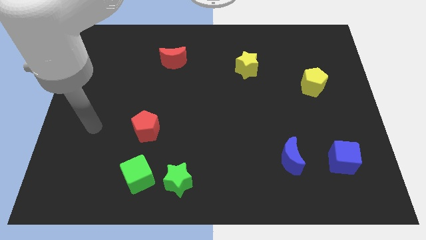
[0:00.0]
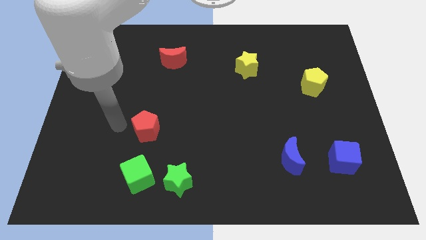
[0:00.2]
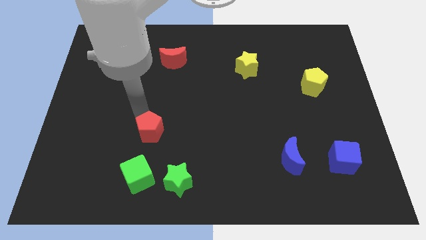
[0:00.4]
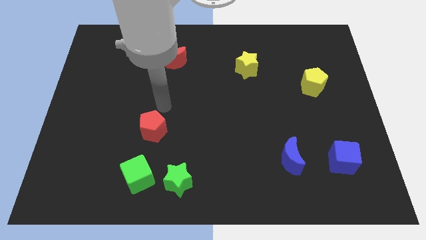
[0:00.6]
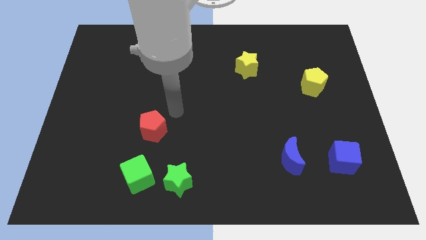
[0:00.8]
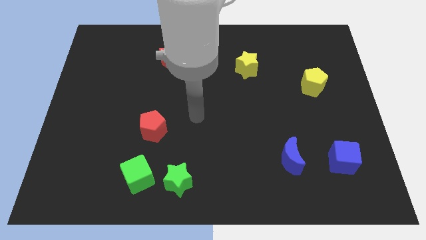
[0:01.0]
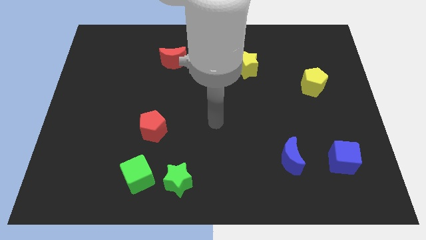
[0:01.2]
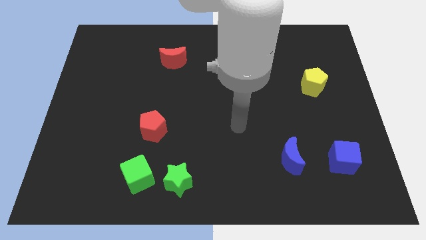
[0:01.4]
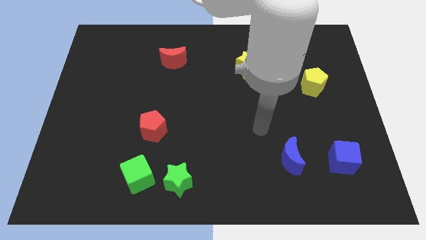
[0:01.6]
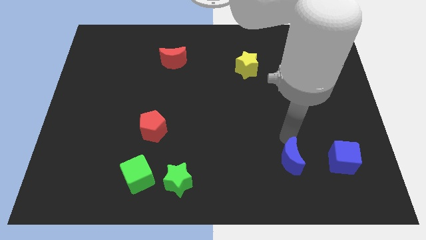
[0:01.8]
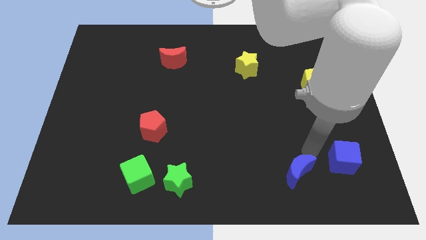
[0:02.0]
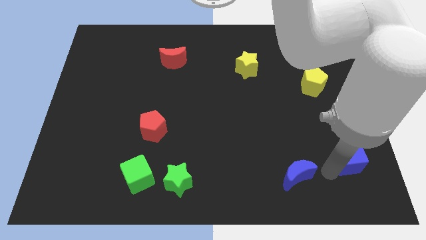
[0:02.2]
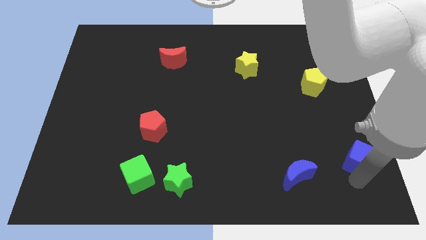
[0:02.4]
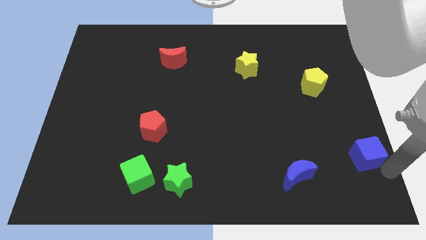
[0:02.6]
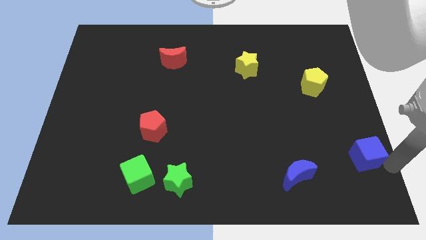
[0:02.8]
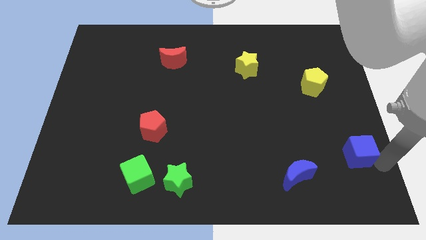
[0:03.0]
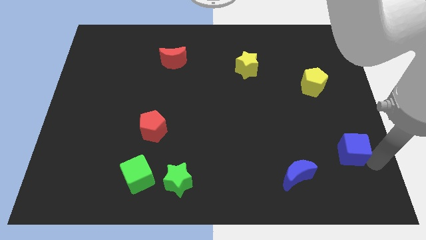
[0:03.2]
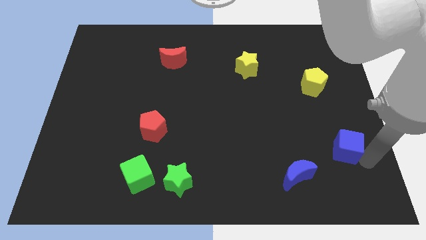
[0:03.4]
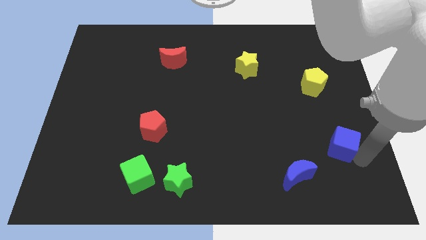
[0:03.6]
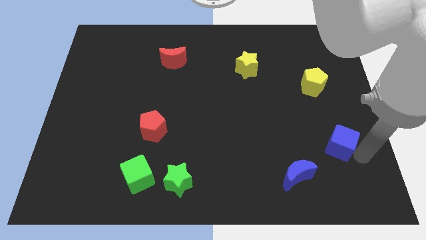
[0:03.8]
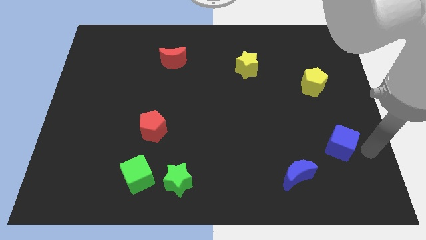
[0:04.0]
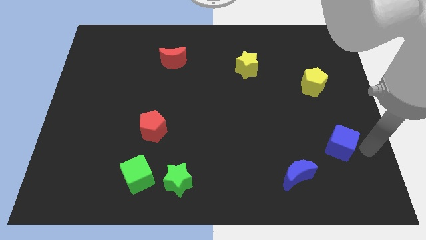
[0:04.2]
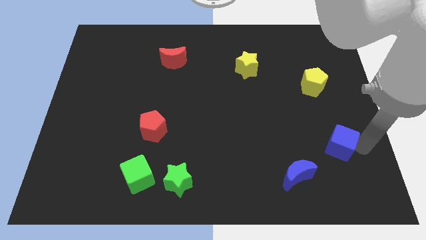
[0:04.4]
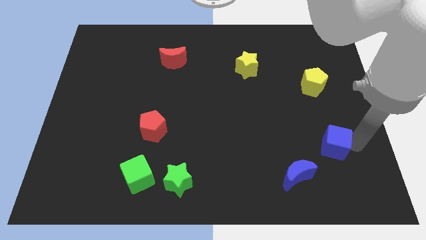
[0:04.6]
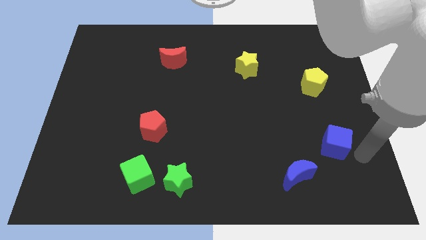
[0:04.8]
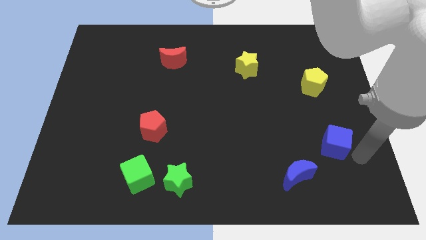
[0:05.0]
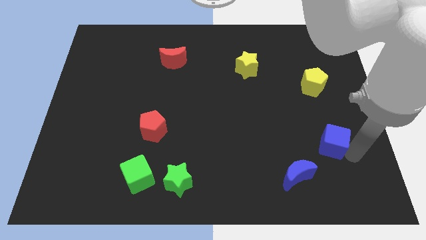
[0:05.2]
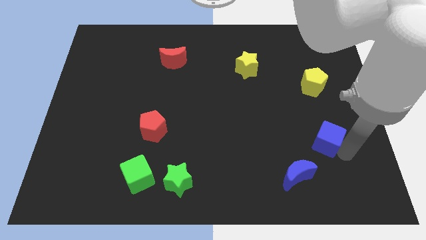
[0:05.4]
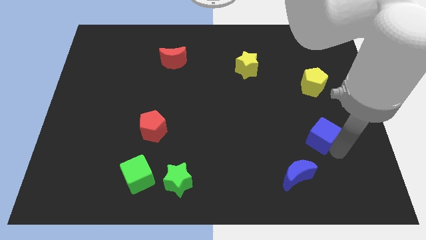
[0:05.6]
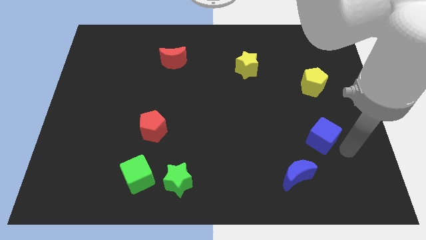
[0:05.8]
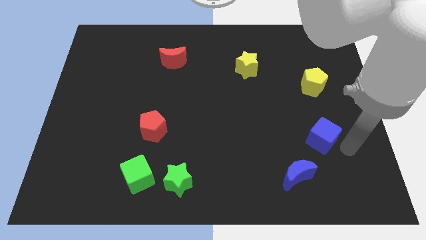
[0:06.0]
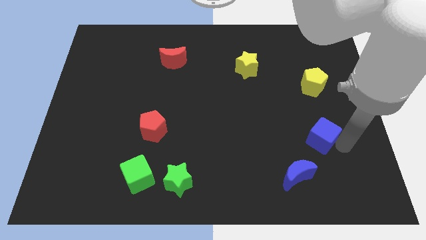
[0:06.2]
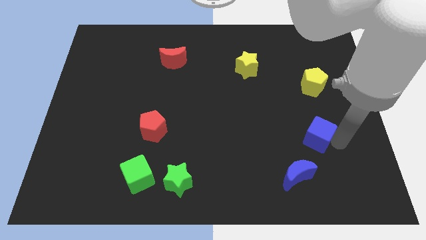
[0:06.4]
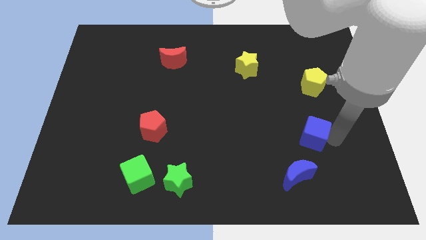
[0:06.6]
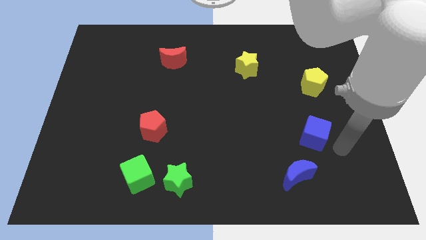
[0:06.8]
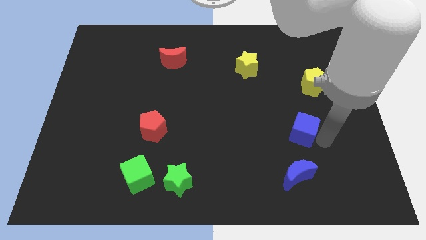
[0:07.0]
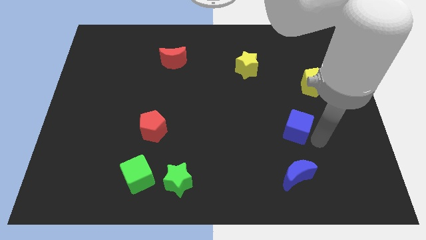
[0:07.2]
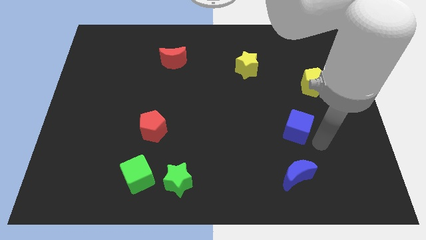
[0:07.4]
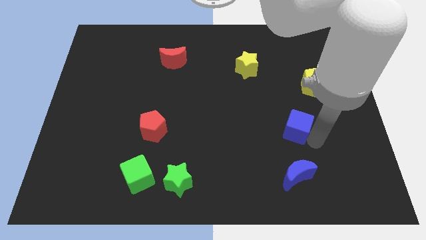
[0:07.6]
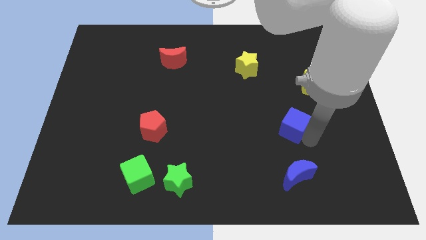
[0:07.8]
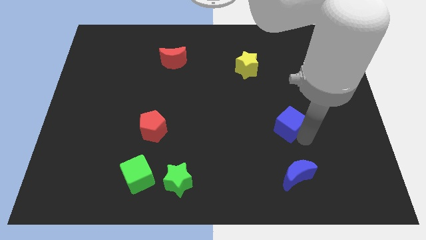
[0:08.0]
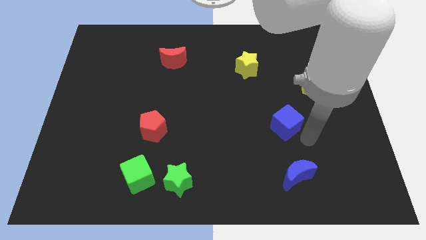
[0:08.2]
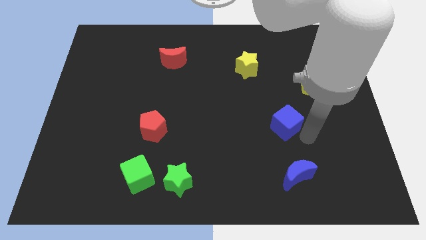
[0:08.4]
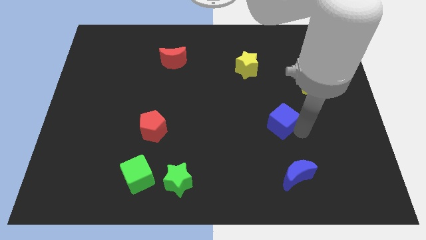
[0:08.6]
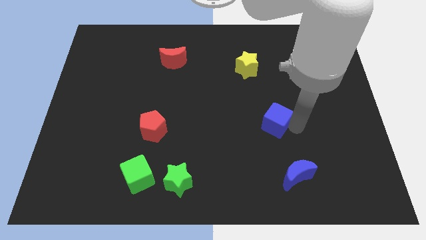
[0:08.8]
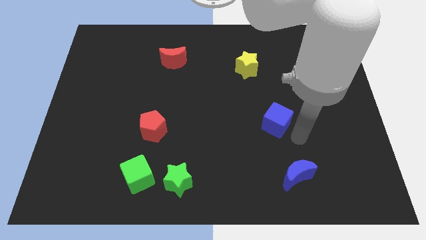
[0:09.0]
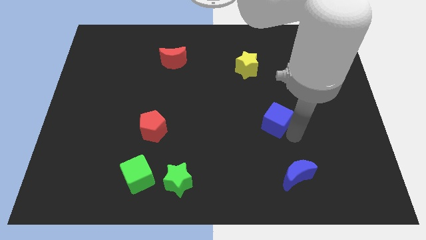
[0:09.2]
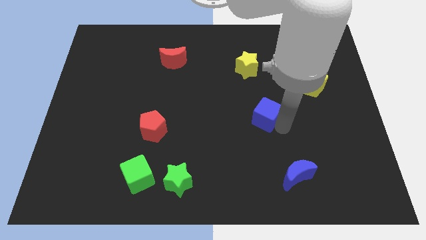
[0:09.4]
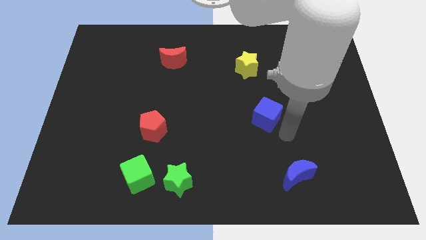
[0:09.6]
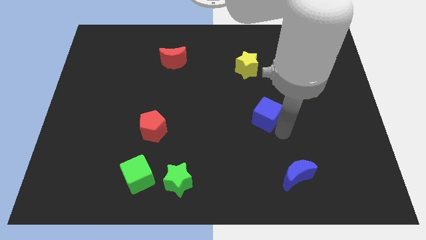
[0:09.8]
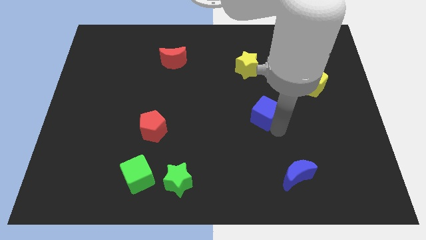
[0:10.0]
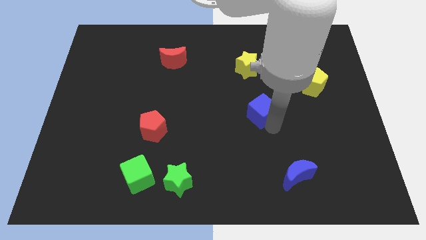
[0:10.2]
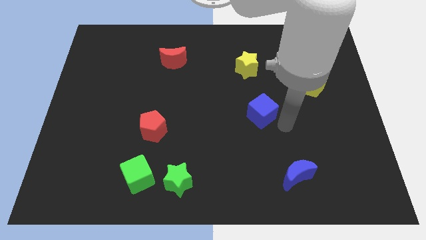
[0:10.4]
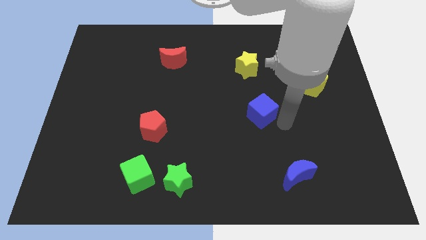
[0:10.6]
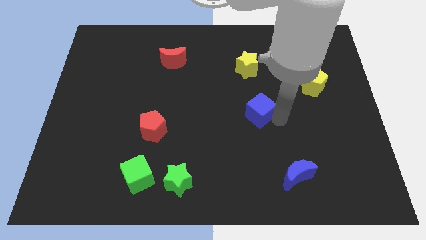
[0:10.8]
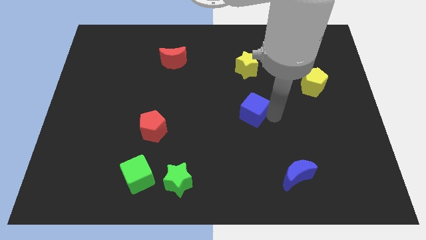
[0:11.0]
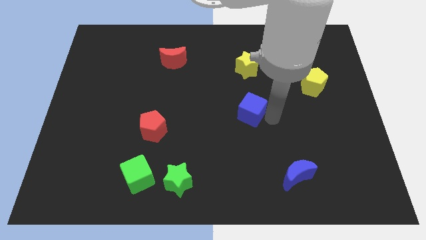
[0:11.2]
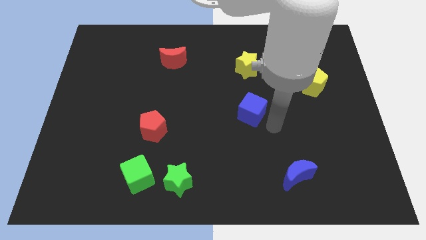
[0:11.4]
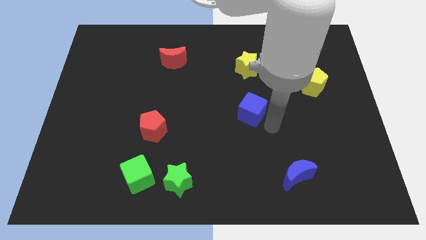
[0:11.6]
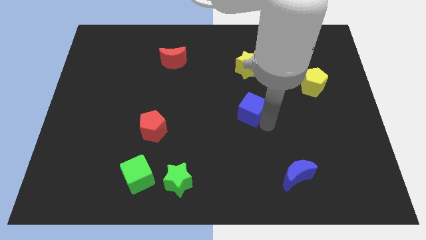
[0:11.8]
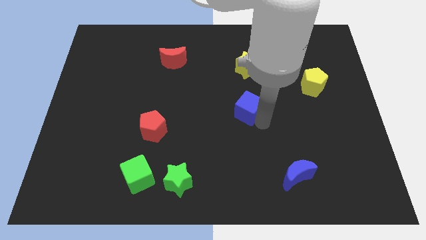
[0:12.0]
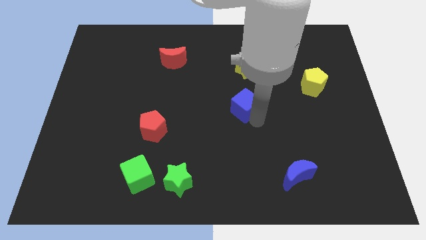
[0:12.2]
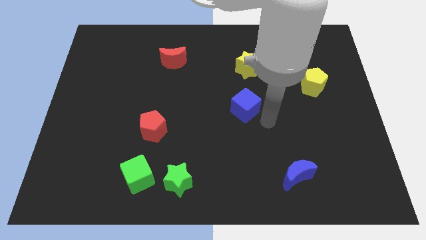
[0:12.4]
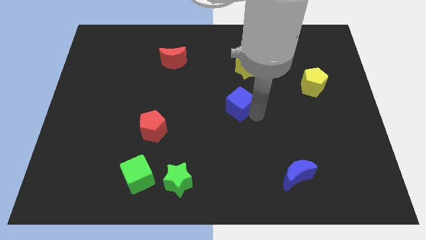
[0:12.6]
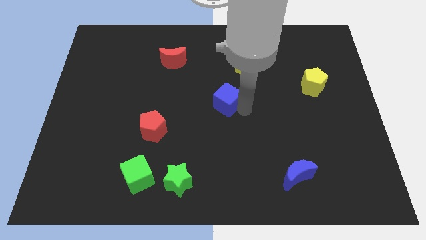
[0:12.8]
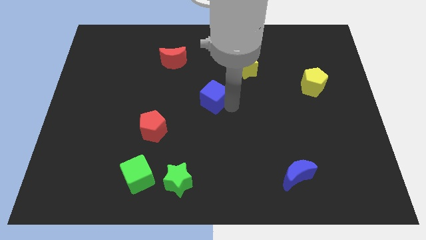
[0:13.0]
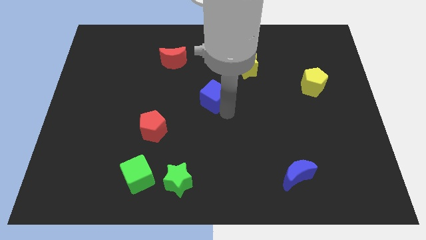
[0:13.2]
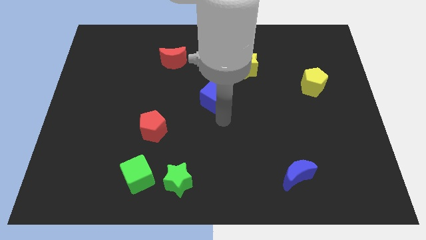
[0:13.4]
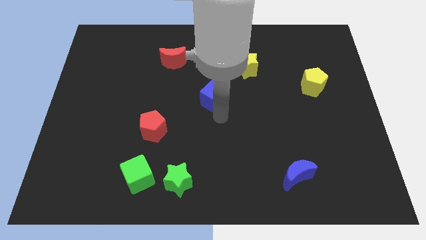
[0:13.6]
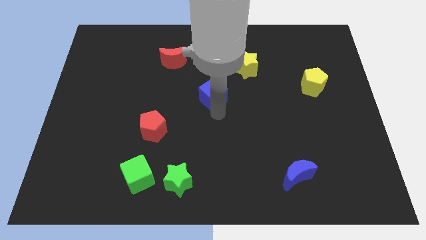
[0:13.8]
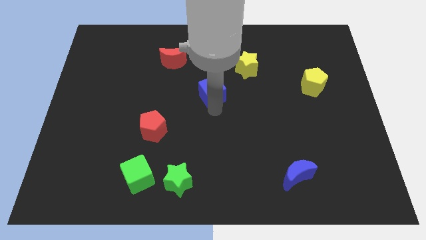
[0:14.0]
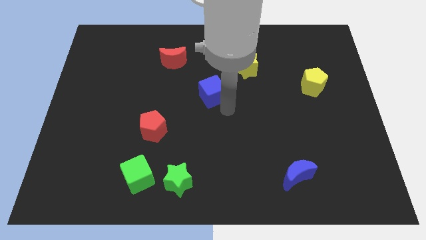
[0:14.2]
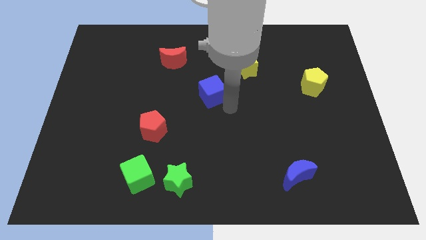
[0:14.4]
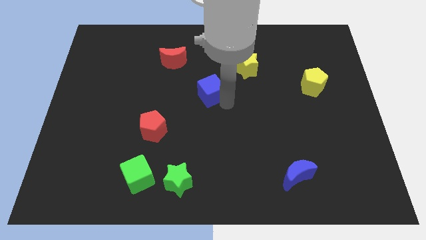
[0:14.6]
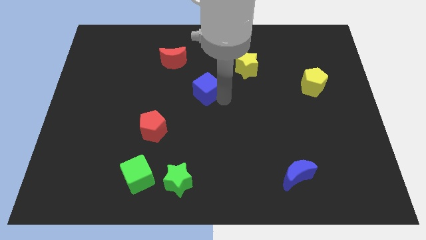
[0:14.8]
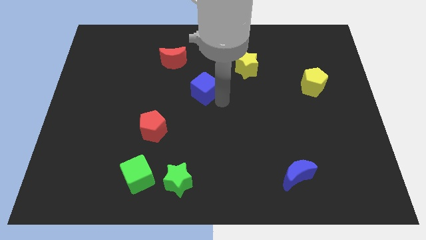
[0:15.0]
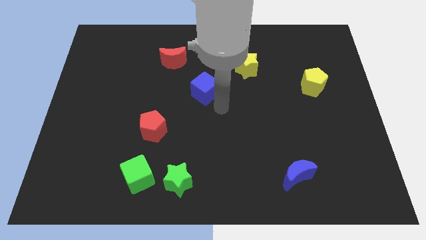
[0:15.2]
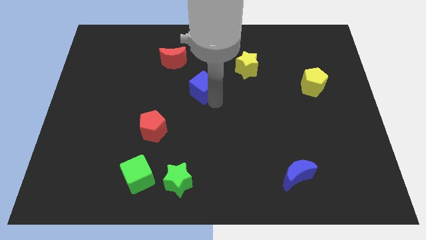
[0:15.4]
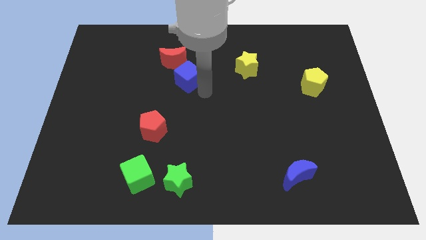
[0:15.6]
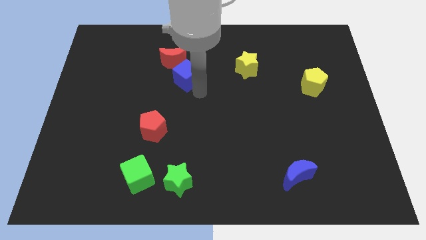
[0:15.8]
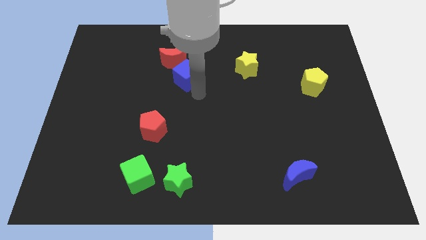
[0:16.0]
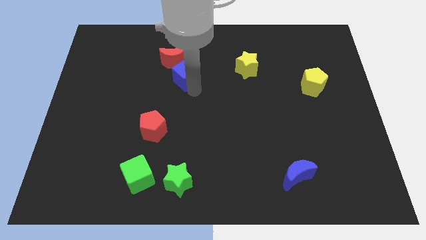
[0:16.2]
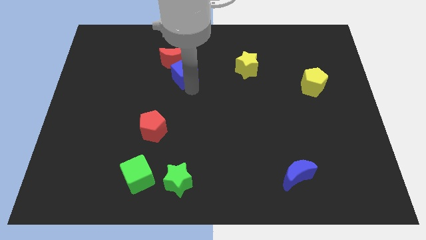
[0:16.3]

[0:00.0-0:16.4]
move the blue cube towards the red moon
